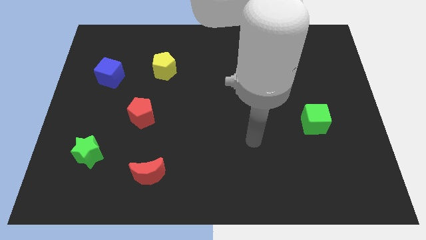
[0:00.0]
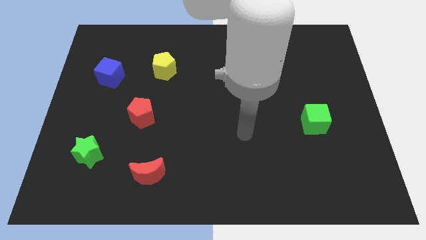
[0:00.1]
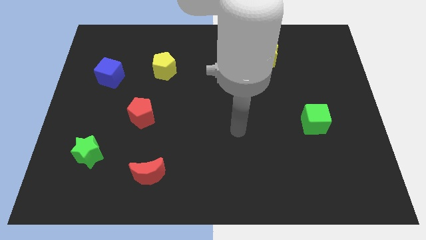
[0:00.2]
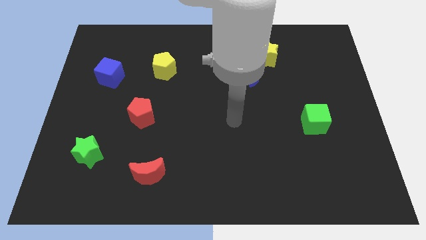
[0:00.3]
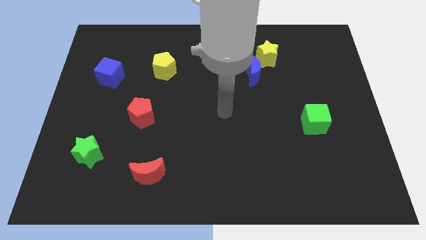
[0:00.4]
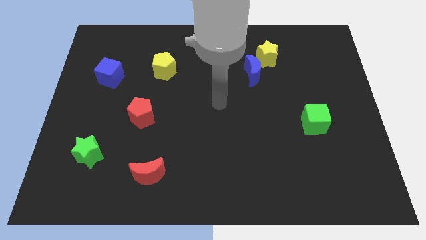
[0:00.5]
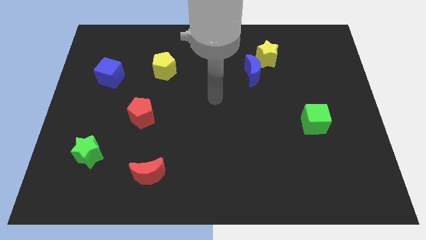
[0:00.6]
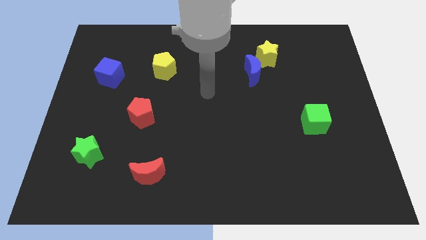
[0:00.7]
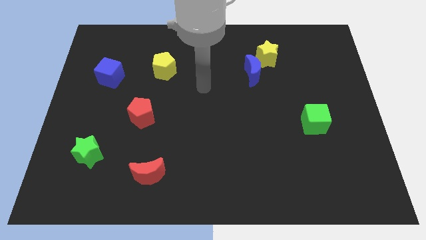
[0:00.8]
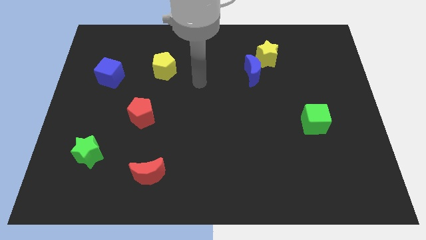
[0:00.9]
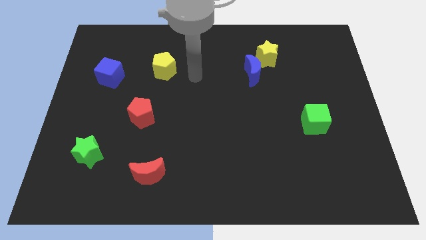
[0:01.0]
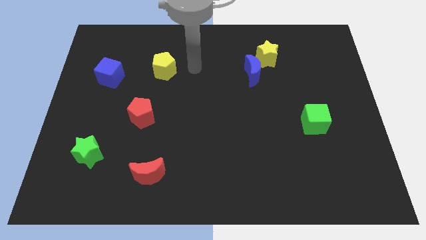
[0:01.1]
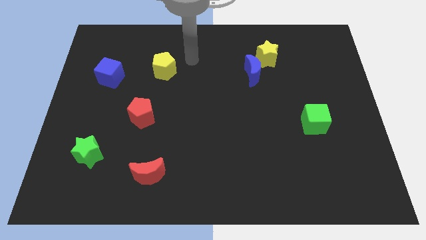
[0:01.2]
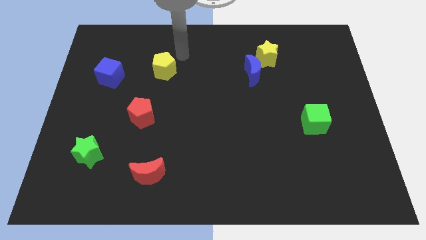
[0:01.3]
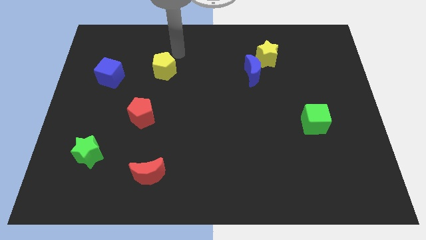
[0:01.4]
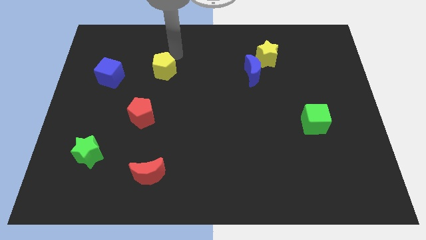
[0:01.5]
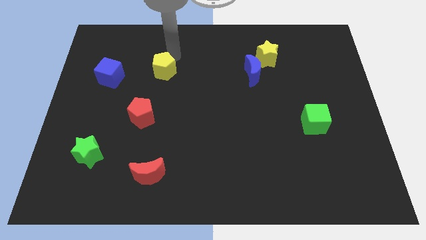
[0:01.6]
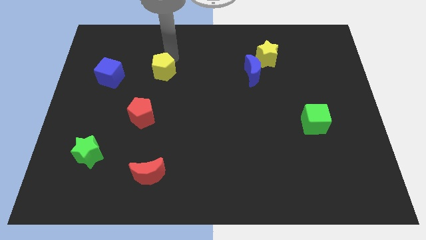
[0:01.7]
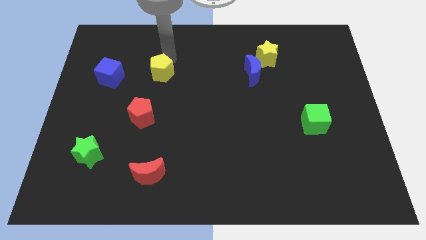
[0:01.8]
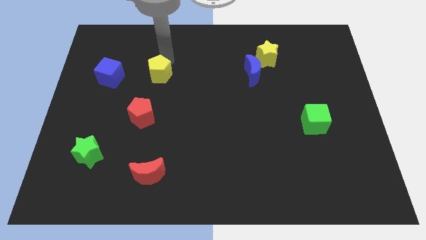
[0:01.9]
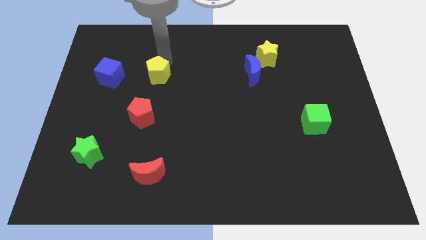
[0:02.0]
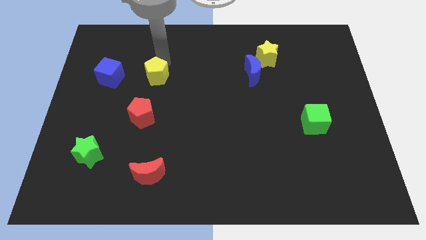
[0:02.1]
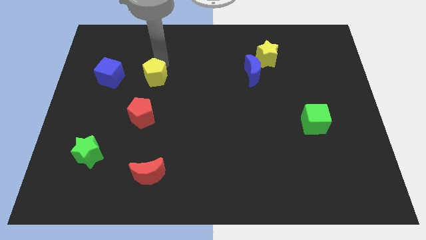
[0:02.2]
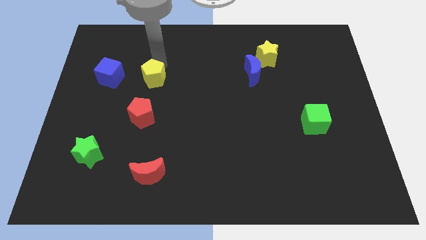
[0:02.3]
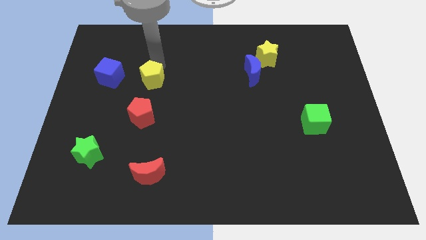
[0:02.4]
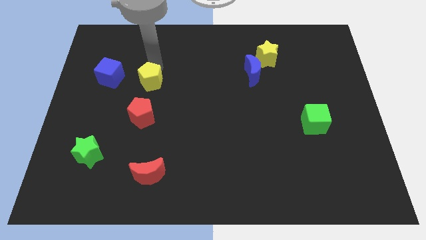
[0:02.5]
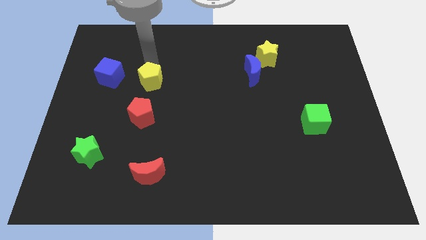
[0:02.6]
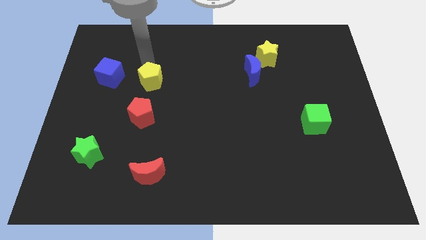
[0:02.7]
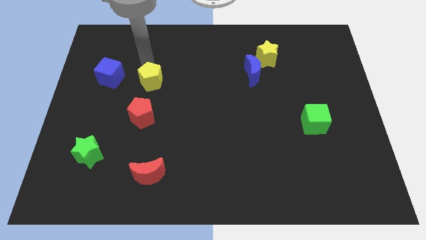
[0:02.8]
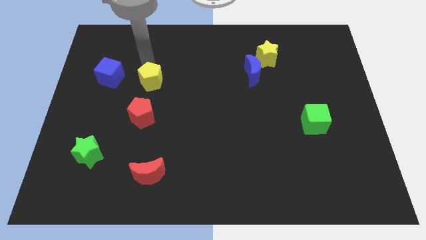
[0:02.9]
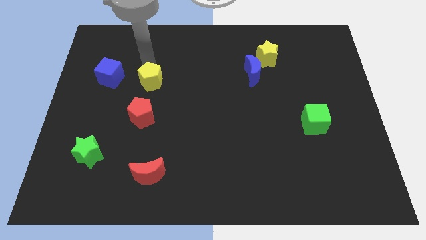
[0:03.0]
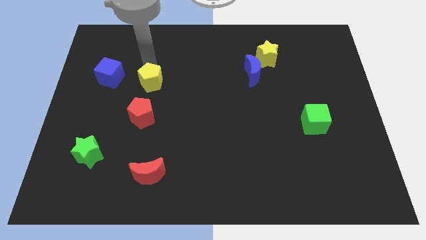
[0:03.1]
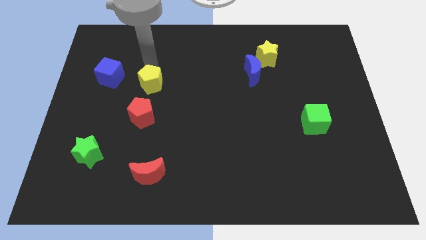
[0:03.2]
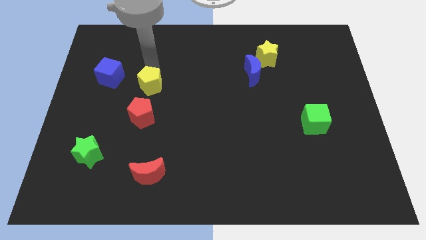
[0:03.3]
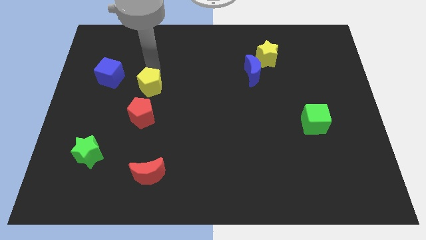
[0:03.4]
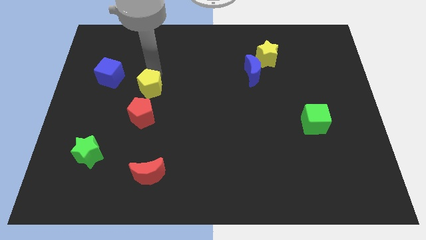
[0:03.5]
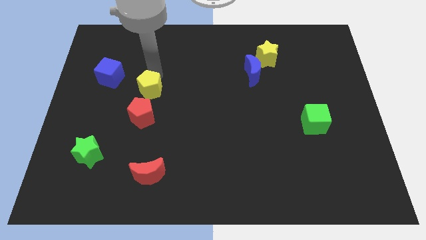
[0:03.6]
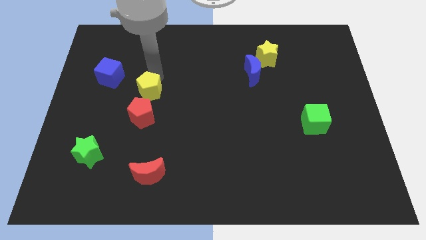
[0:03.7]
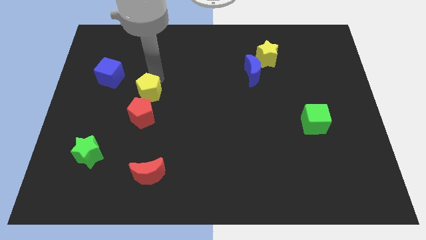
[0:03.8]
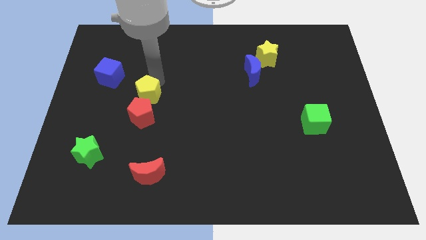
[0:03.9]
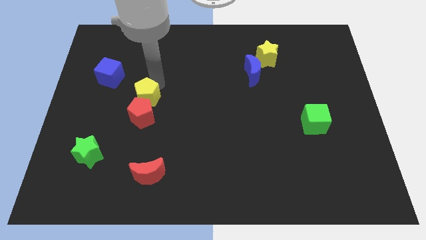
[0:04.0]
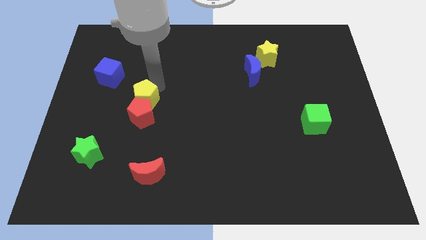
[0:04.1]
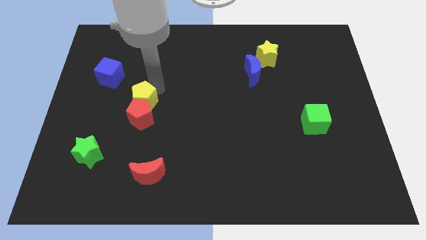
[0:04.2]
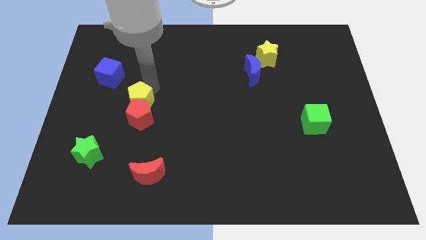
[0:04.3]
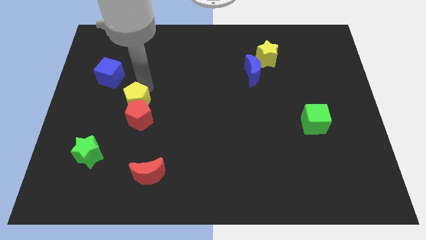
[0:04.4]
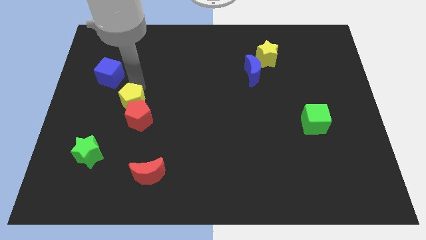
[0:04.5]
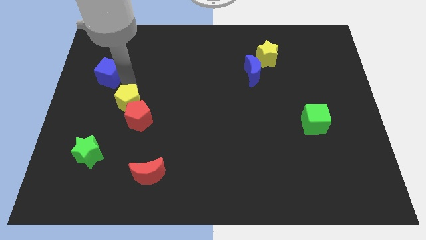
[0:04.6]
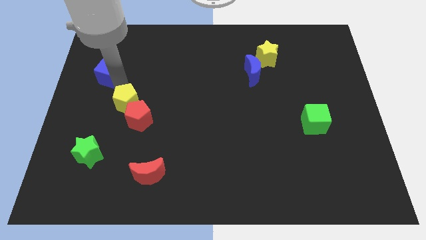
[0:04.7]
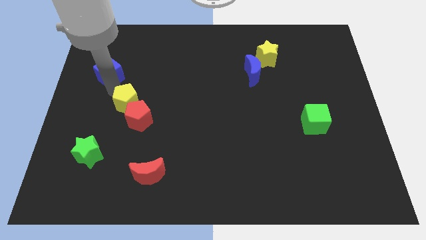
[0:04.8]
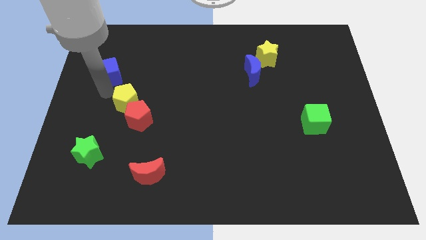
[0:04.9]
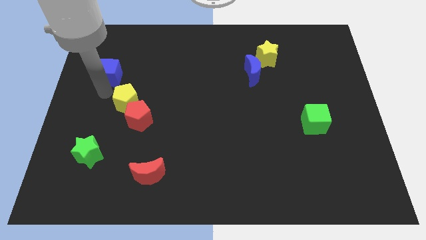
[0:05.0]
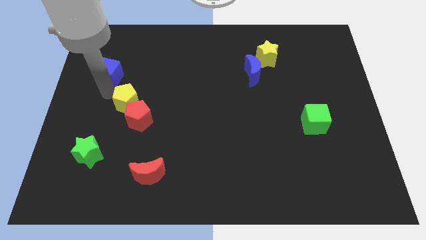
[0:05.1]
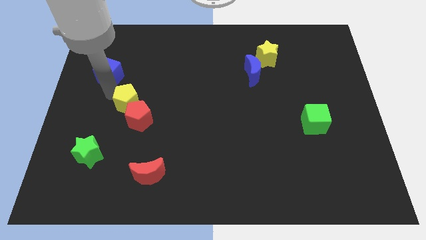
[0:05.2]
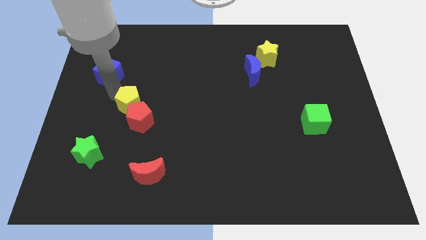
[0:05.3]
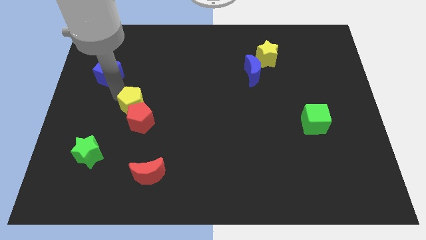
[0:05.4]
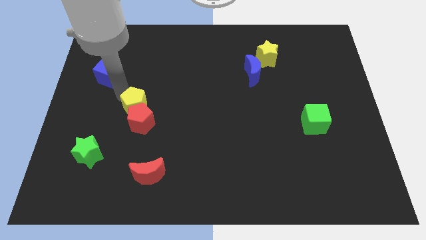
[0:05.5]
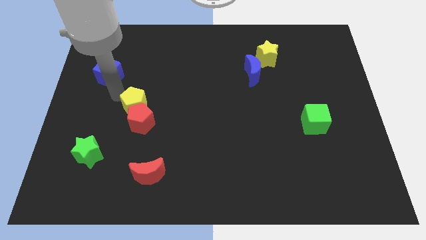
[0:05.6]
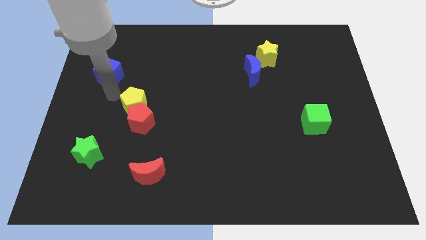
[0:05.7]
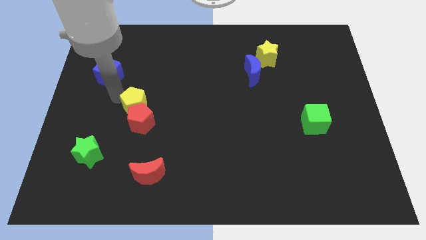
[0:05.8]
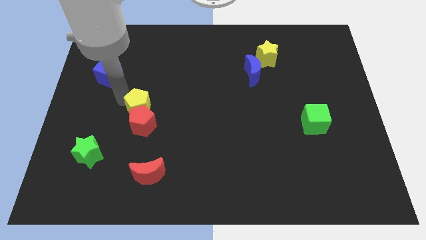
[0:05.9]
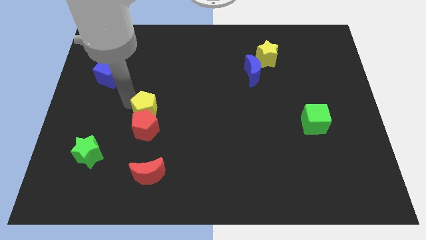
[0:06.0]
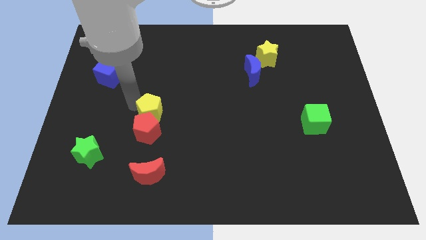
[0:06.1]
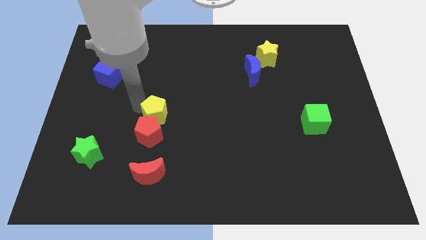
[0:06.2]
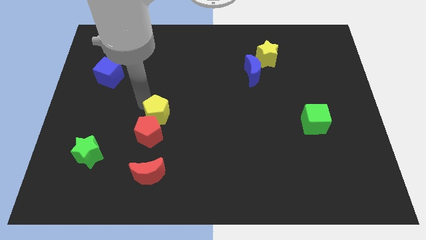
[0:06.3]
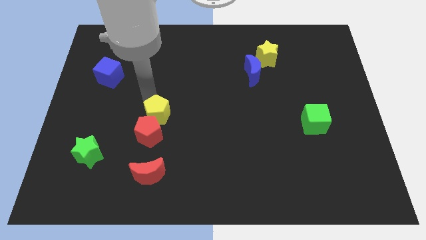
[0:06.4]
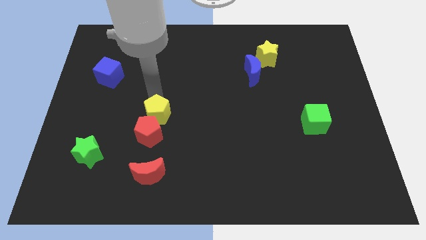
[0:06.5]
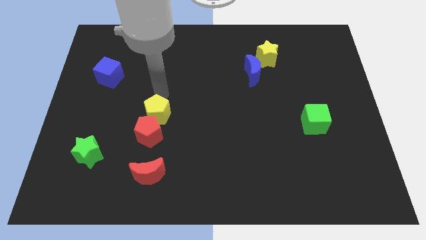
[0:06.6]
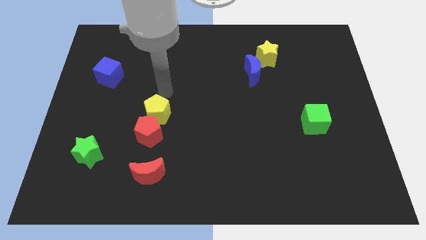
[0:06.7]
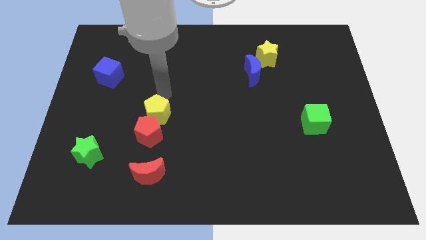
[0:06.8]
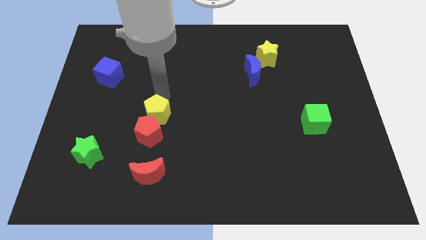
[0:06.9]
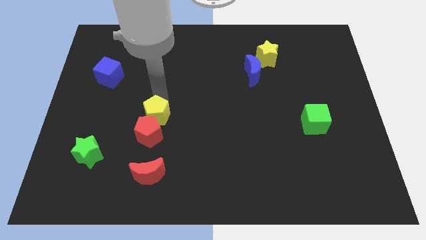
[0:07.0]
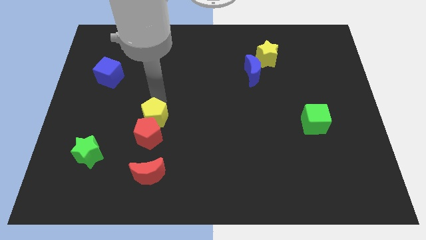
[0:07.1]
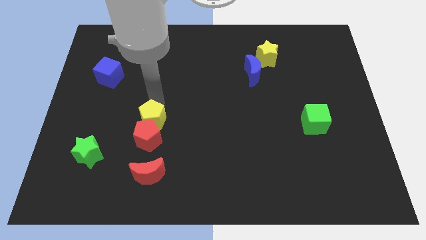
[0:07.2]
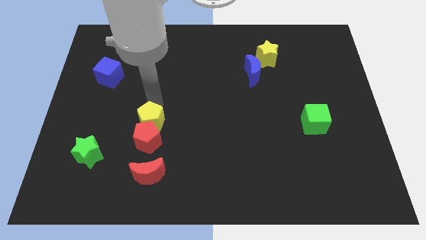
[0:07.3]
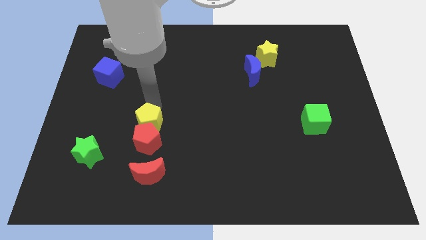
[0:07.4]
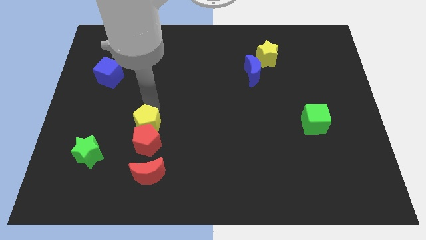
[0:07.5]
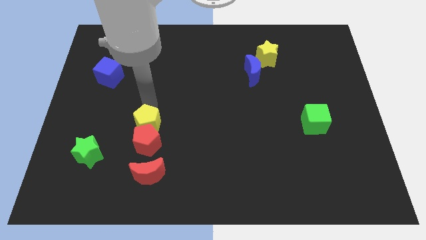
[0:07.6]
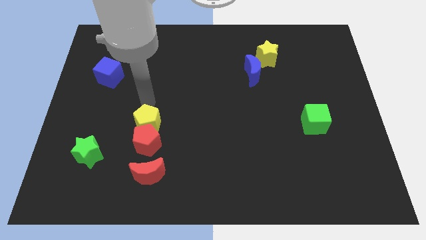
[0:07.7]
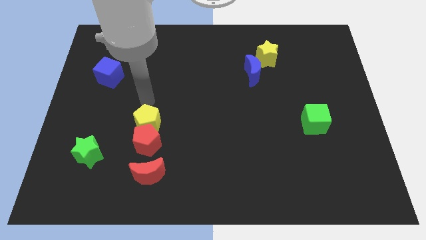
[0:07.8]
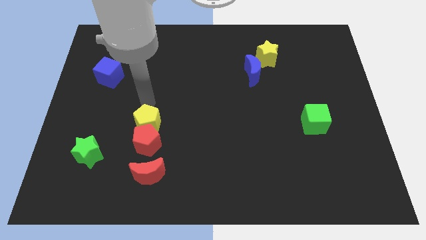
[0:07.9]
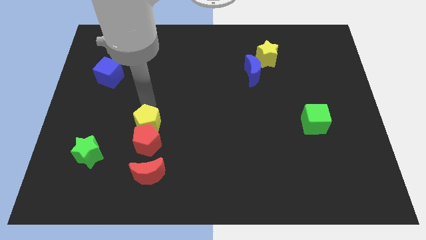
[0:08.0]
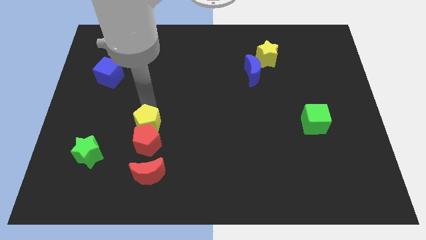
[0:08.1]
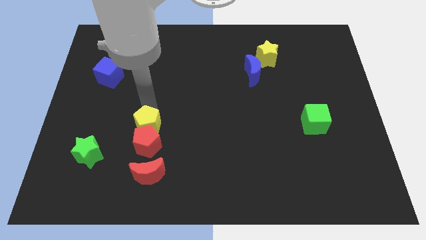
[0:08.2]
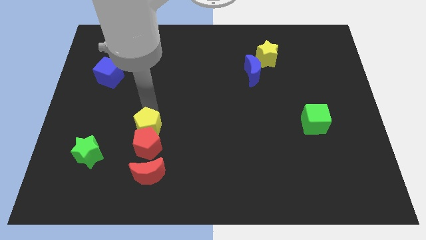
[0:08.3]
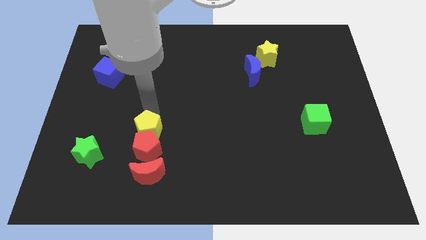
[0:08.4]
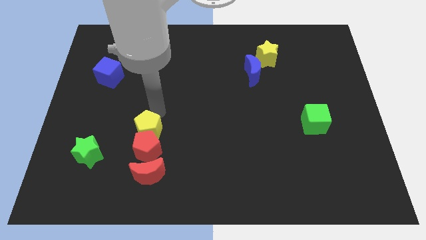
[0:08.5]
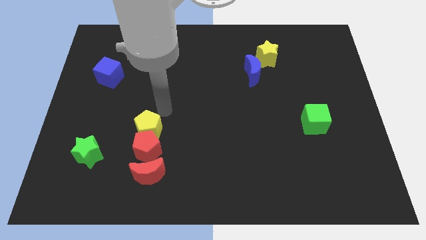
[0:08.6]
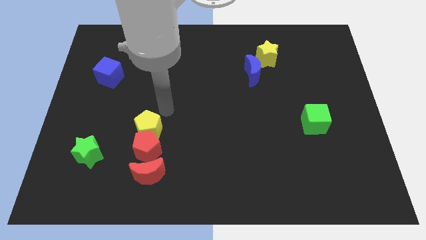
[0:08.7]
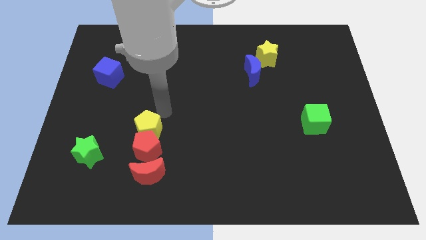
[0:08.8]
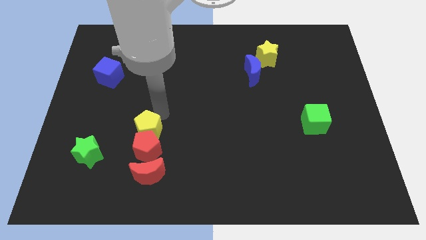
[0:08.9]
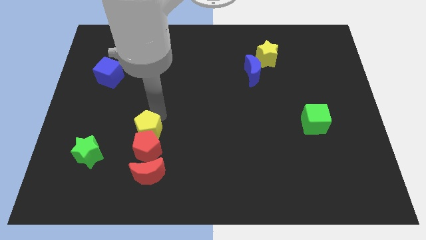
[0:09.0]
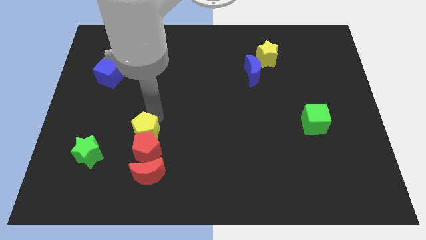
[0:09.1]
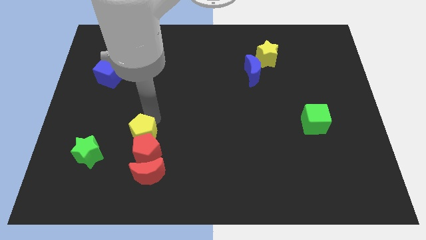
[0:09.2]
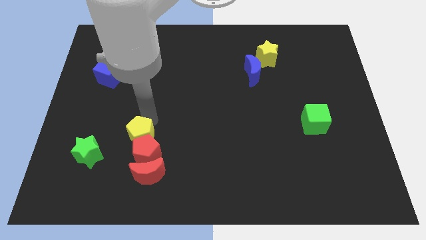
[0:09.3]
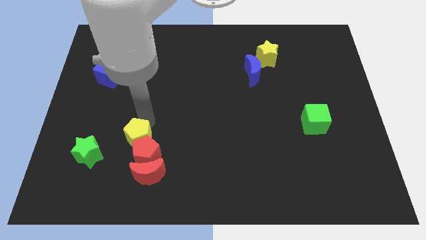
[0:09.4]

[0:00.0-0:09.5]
push the yellow pentagon diagonally up and to the left of the red moon
